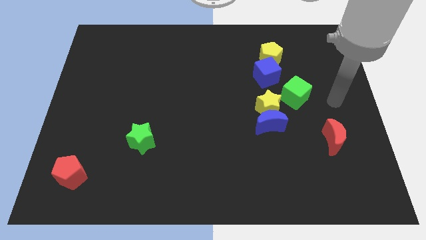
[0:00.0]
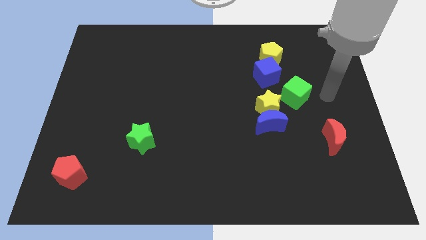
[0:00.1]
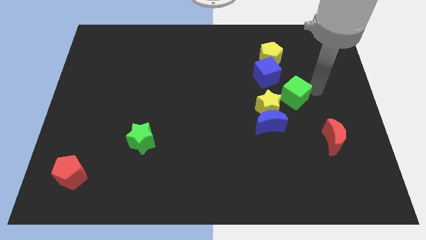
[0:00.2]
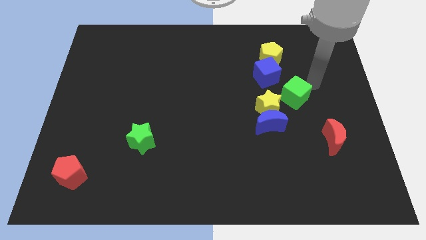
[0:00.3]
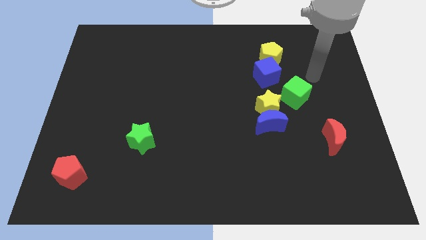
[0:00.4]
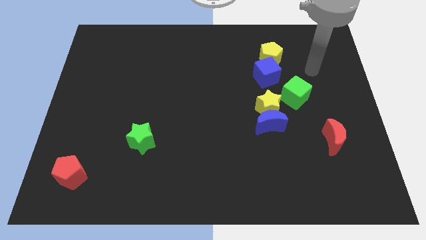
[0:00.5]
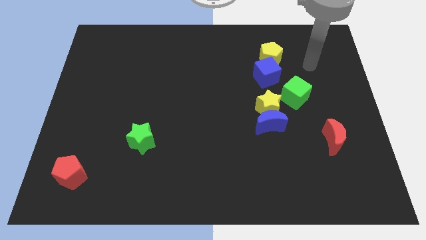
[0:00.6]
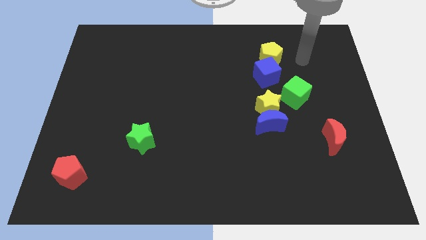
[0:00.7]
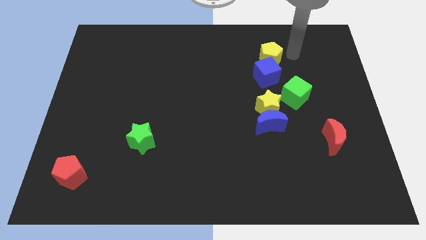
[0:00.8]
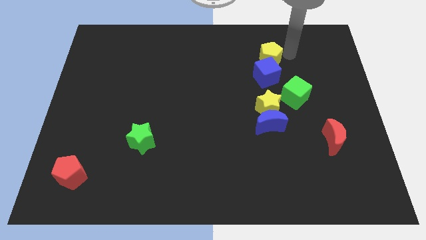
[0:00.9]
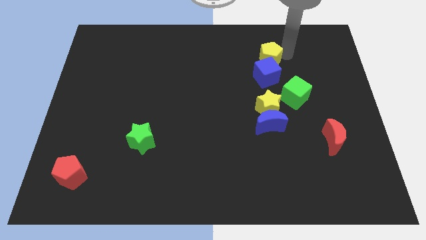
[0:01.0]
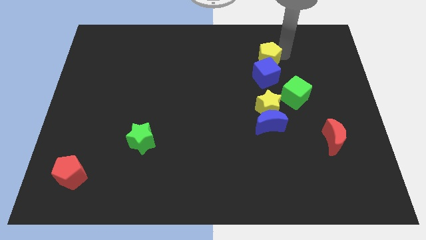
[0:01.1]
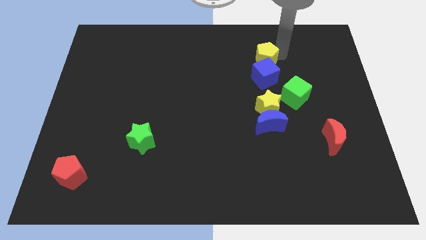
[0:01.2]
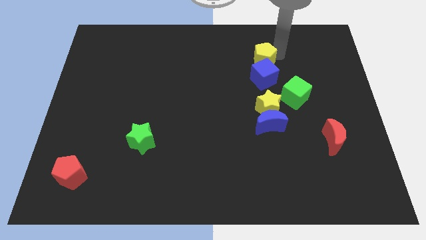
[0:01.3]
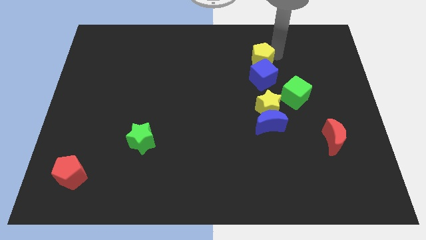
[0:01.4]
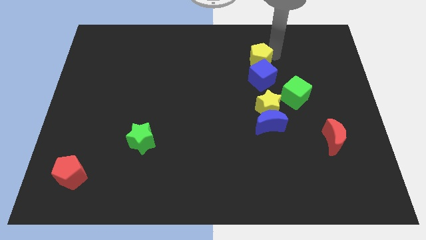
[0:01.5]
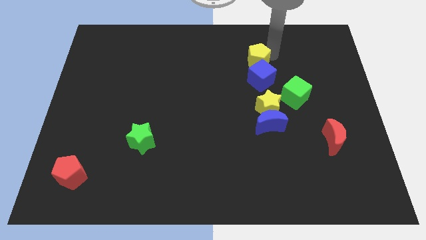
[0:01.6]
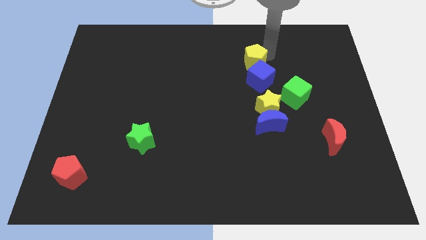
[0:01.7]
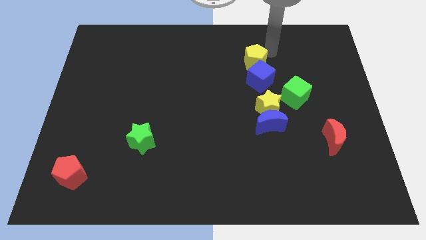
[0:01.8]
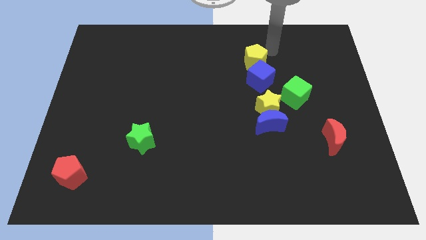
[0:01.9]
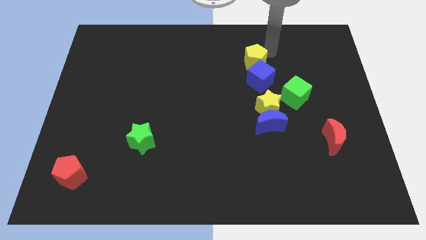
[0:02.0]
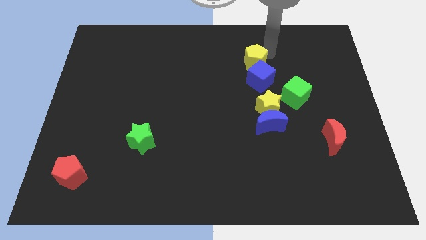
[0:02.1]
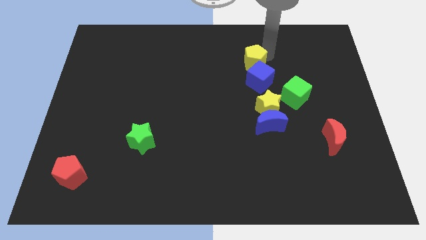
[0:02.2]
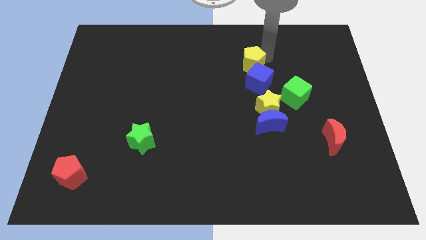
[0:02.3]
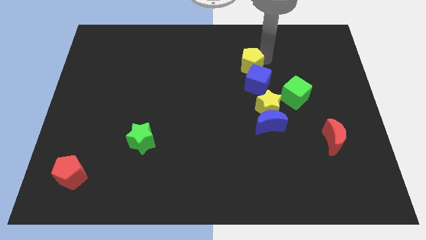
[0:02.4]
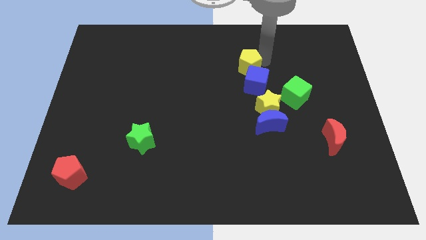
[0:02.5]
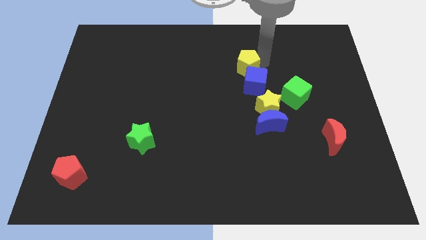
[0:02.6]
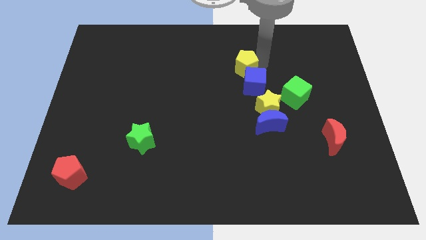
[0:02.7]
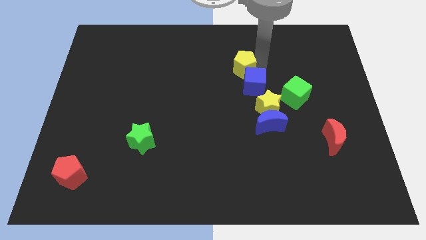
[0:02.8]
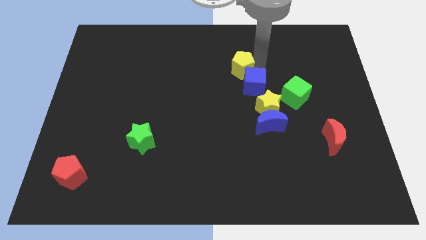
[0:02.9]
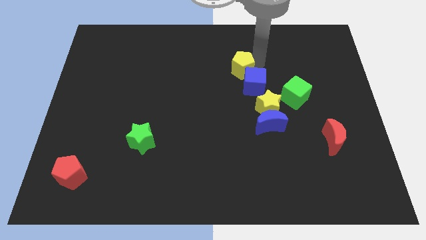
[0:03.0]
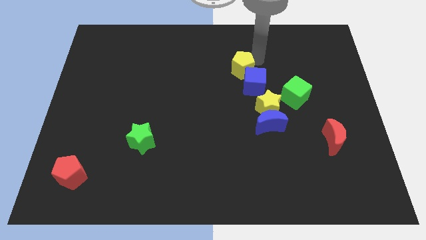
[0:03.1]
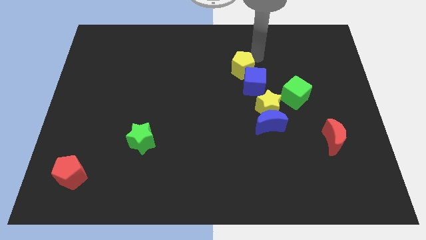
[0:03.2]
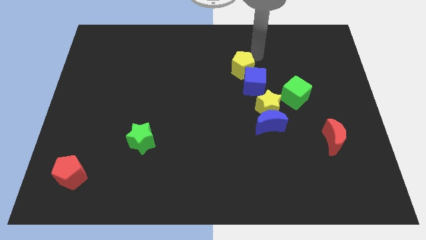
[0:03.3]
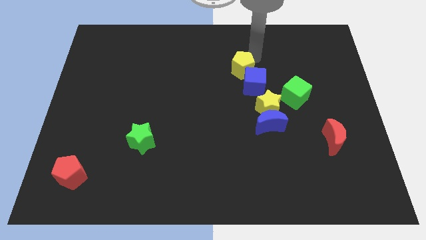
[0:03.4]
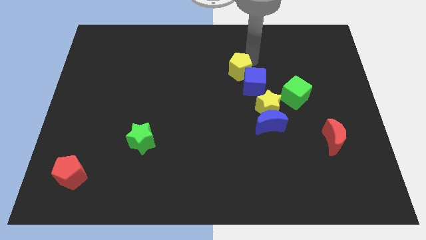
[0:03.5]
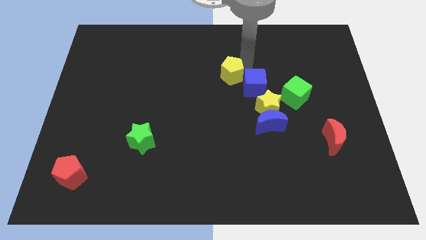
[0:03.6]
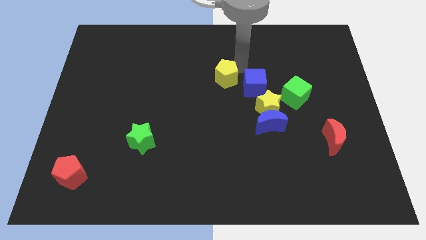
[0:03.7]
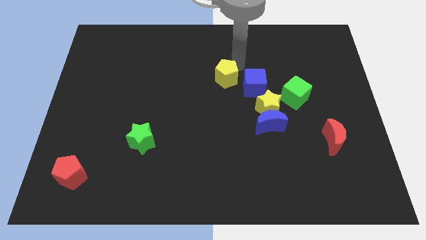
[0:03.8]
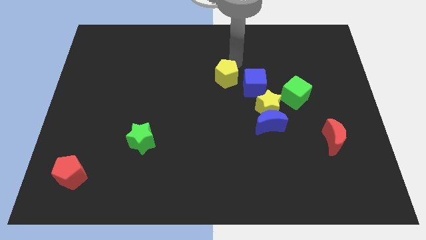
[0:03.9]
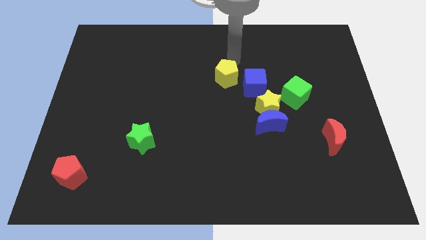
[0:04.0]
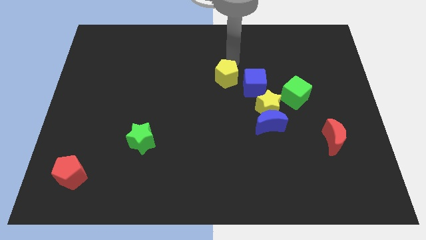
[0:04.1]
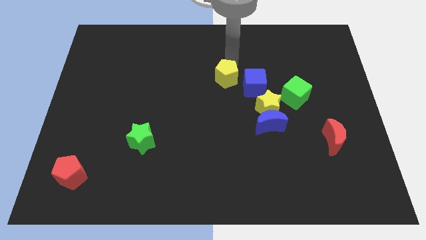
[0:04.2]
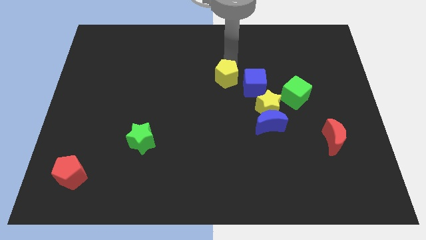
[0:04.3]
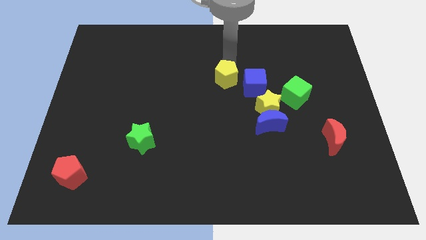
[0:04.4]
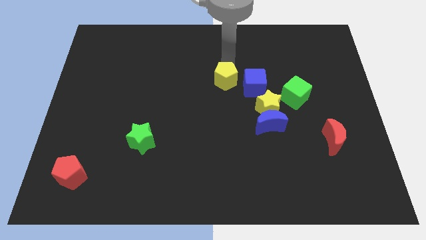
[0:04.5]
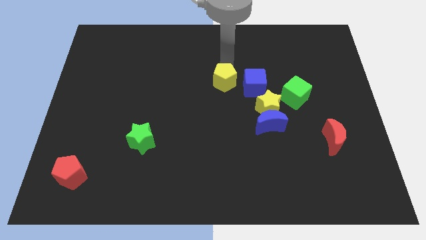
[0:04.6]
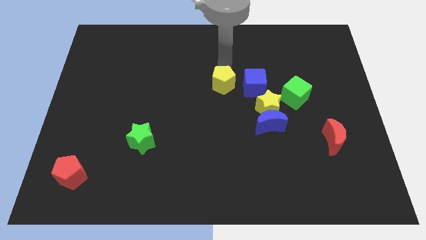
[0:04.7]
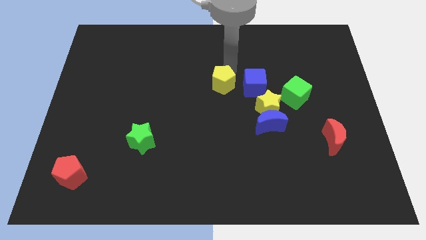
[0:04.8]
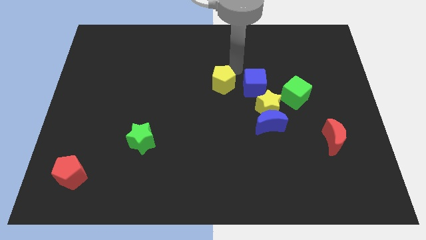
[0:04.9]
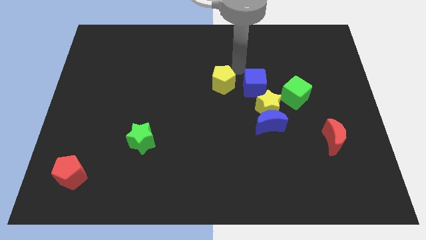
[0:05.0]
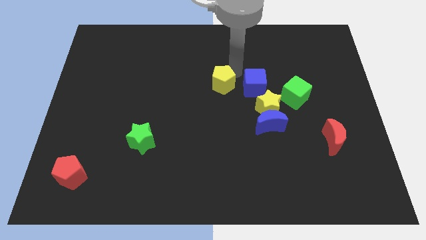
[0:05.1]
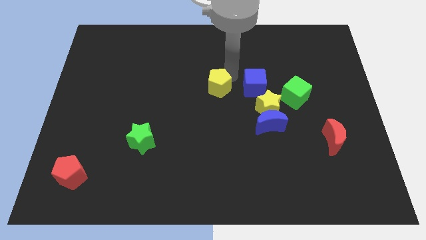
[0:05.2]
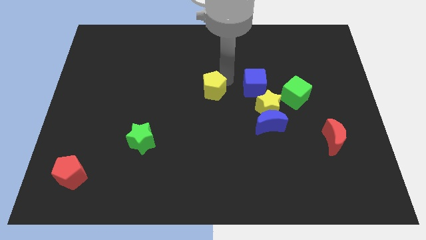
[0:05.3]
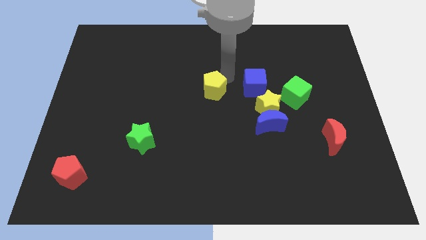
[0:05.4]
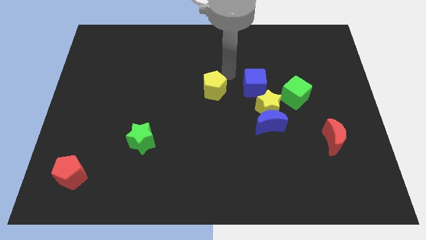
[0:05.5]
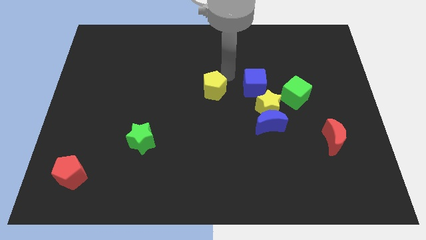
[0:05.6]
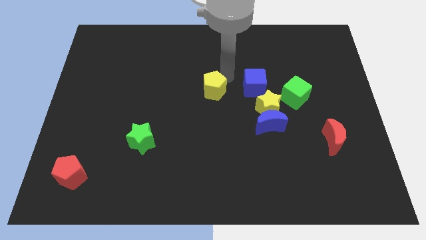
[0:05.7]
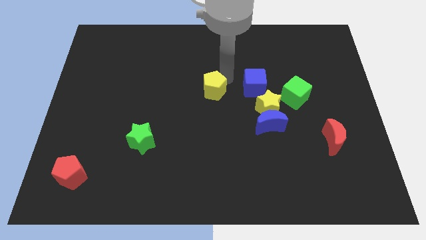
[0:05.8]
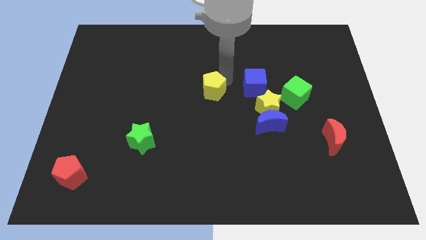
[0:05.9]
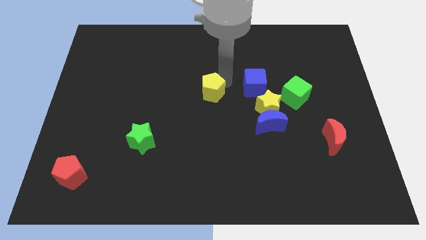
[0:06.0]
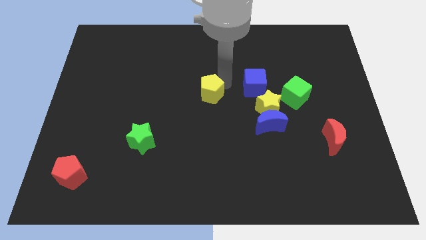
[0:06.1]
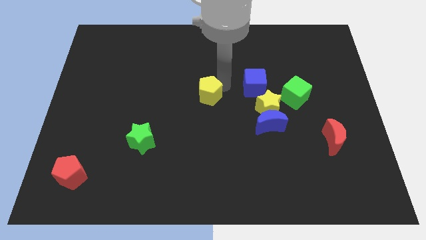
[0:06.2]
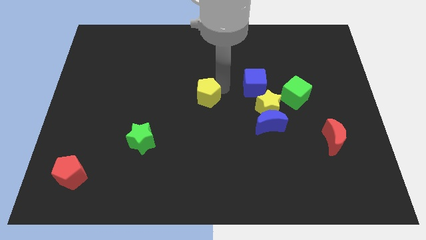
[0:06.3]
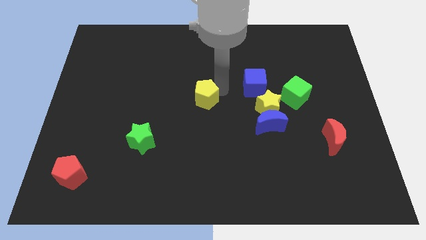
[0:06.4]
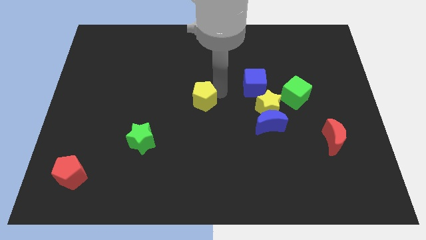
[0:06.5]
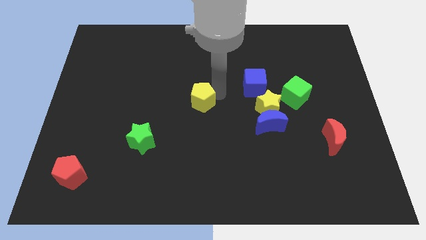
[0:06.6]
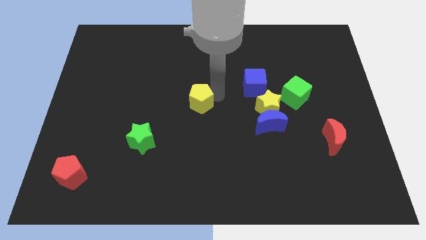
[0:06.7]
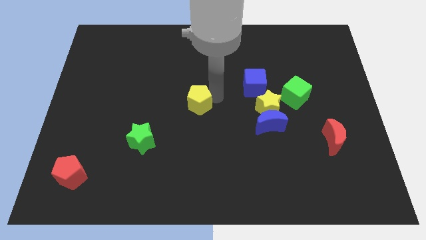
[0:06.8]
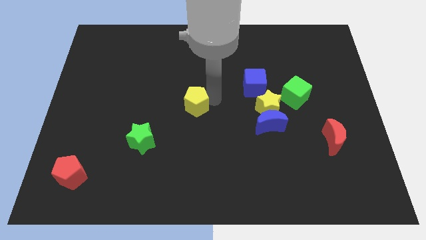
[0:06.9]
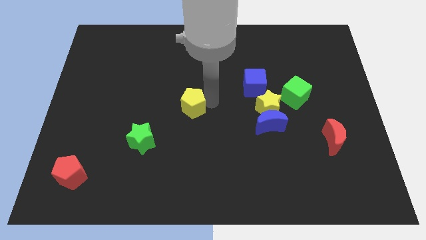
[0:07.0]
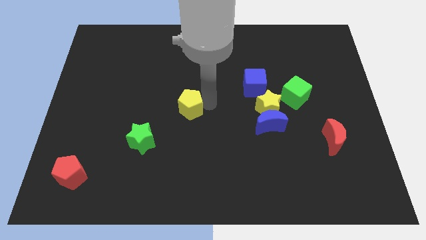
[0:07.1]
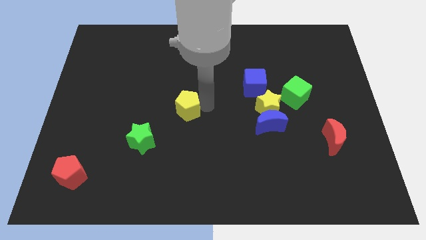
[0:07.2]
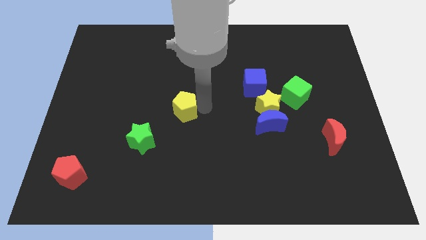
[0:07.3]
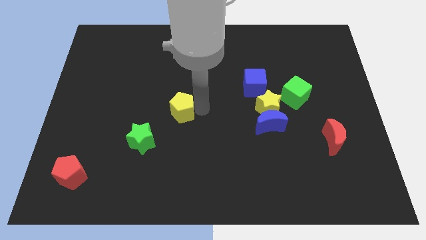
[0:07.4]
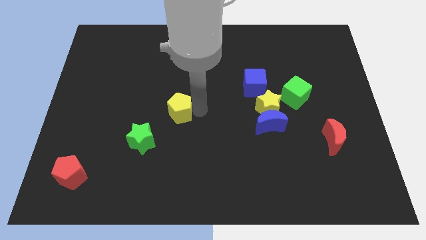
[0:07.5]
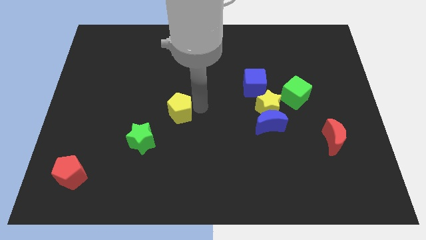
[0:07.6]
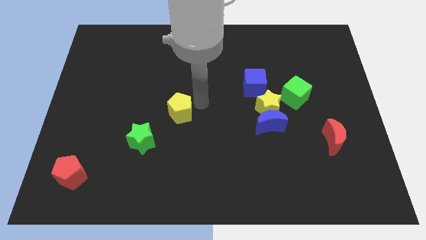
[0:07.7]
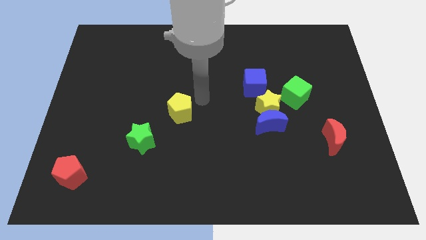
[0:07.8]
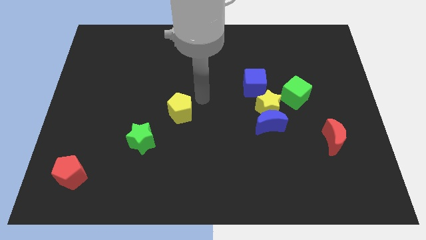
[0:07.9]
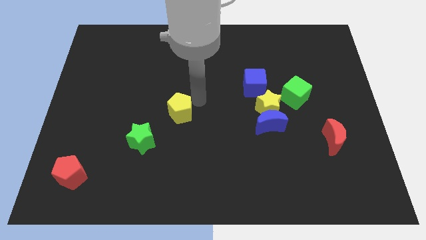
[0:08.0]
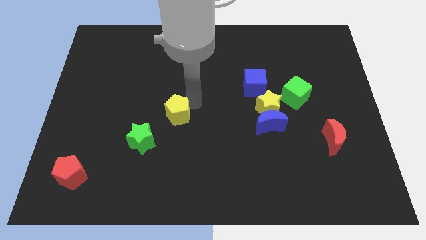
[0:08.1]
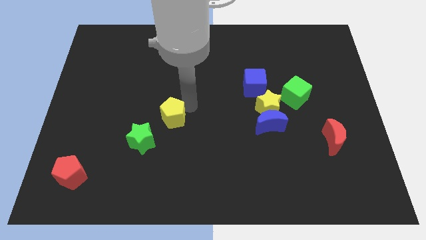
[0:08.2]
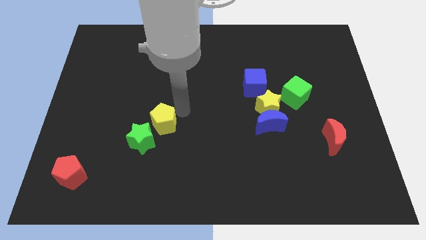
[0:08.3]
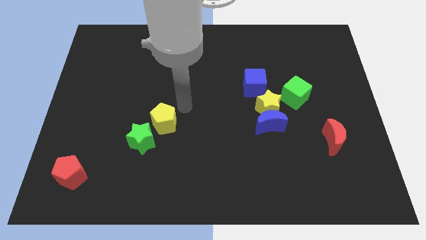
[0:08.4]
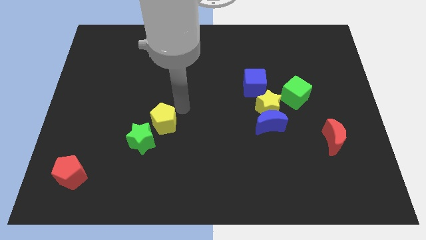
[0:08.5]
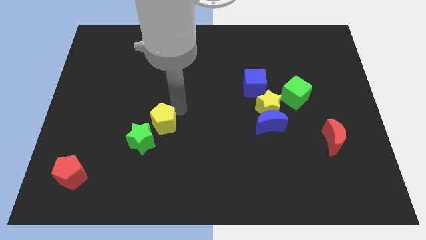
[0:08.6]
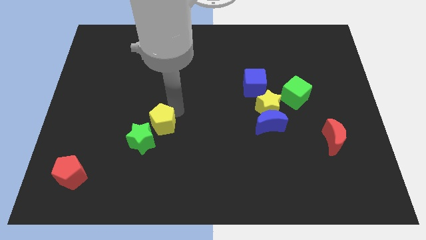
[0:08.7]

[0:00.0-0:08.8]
push the yellow pentagon to the green star
